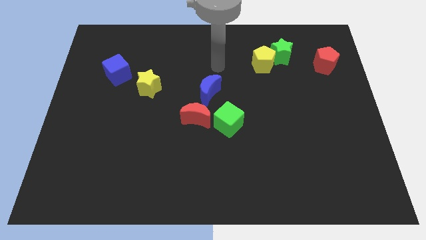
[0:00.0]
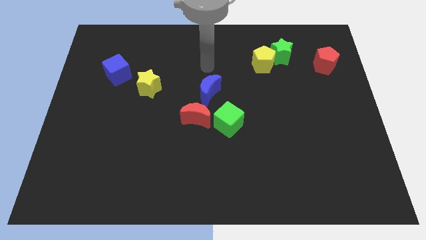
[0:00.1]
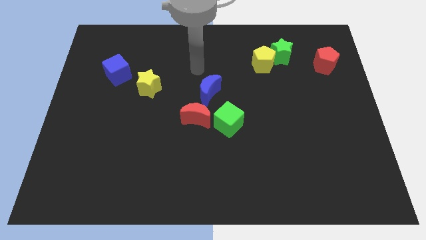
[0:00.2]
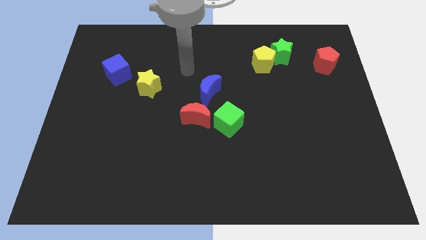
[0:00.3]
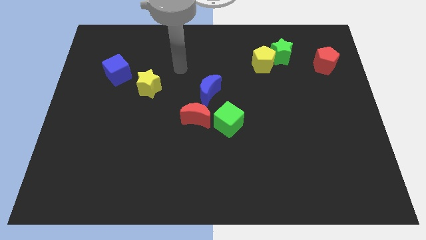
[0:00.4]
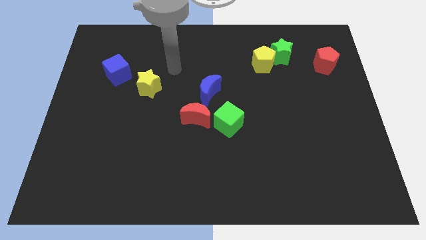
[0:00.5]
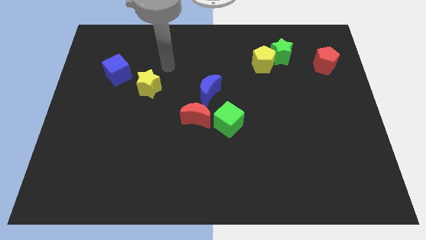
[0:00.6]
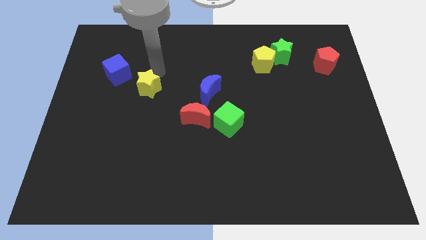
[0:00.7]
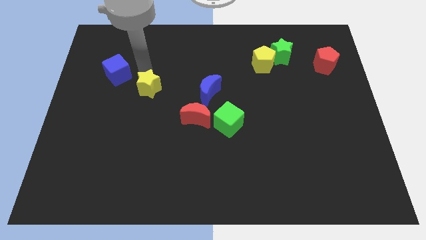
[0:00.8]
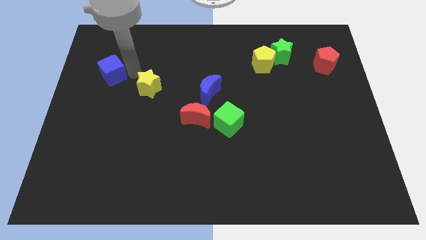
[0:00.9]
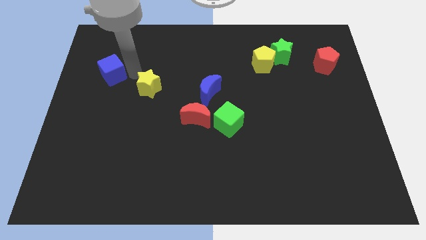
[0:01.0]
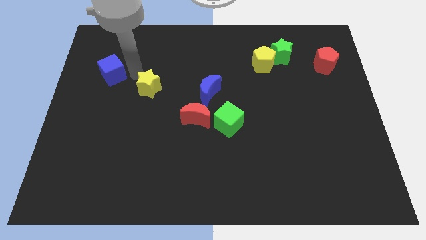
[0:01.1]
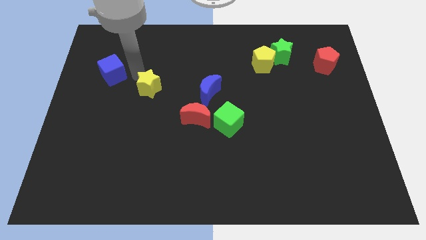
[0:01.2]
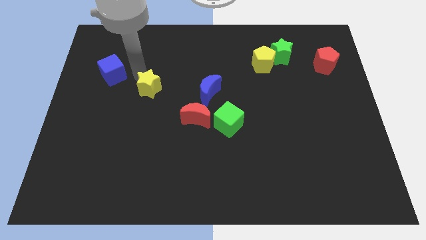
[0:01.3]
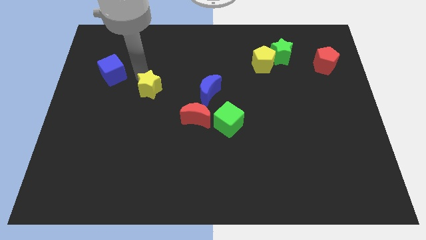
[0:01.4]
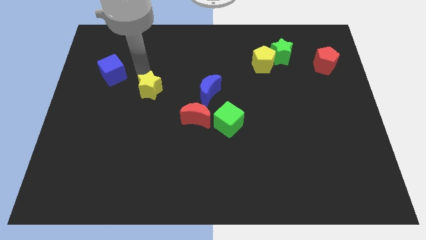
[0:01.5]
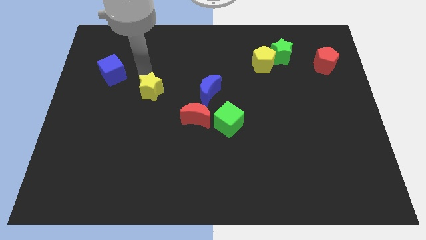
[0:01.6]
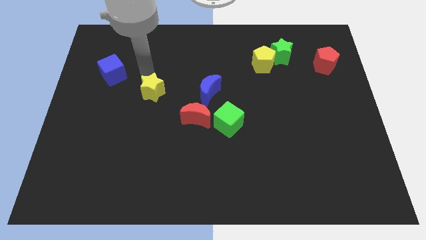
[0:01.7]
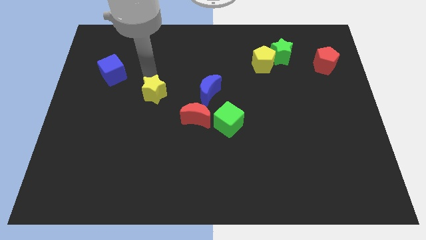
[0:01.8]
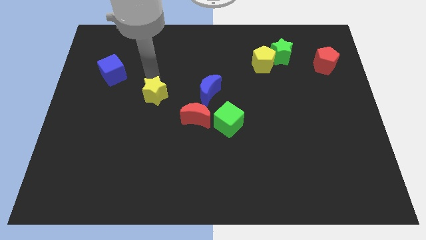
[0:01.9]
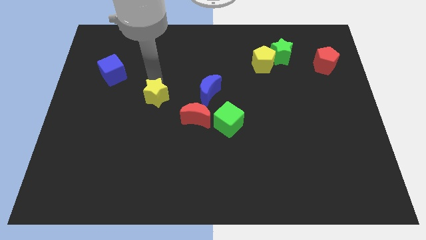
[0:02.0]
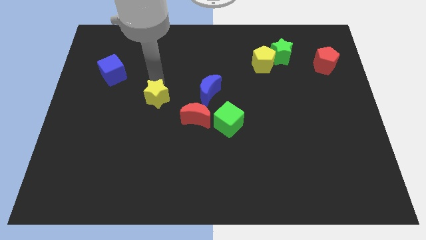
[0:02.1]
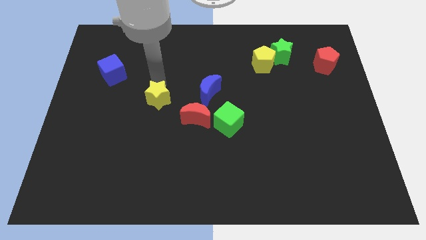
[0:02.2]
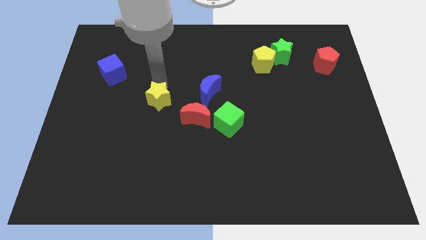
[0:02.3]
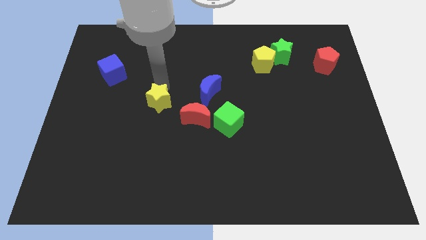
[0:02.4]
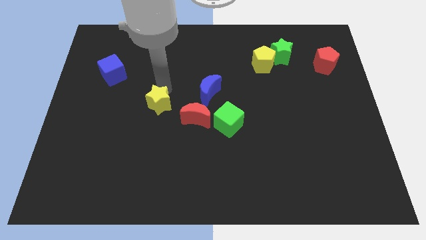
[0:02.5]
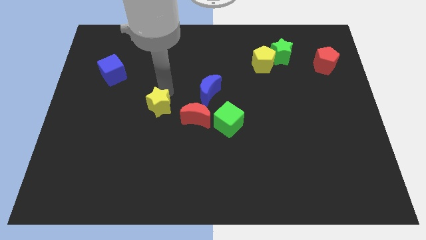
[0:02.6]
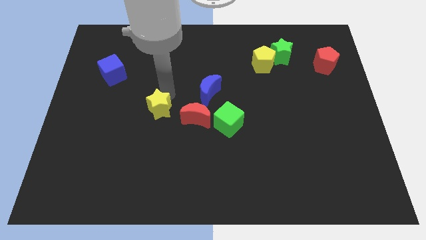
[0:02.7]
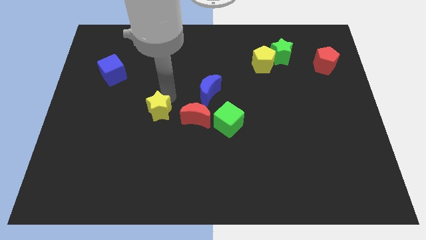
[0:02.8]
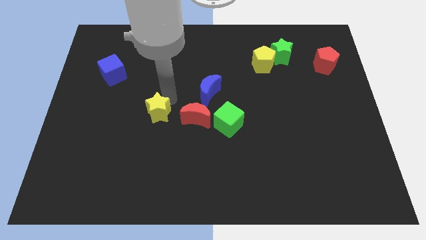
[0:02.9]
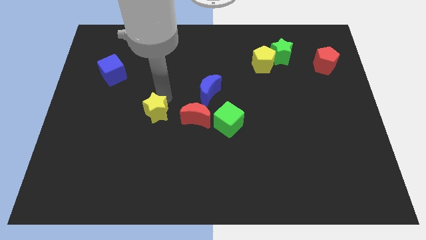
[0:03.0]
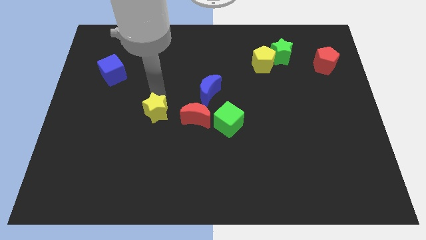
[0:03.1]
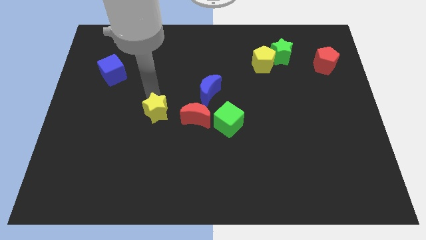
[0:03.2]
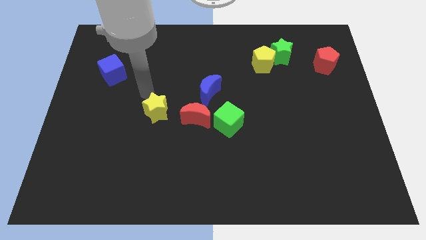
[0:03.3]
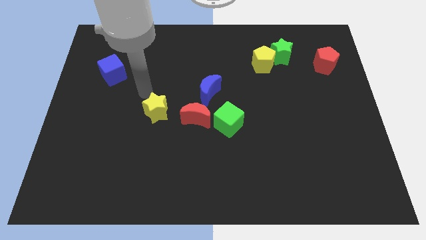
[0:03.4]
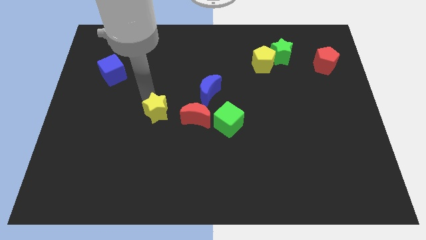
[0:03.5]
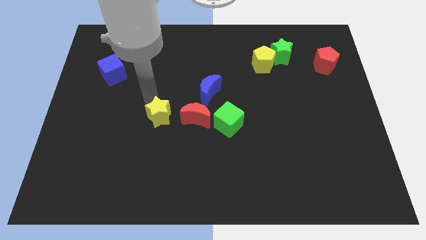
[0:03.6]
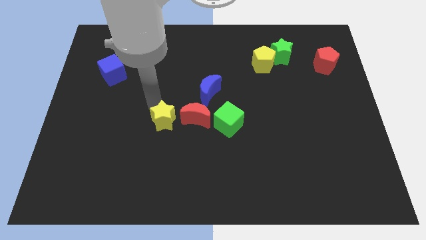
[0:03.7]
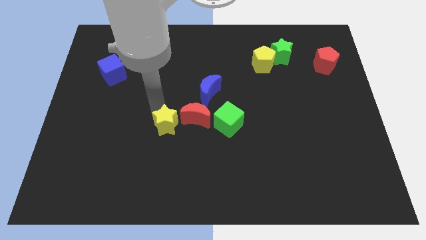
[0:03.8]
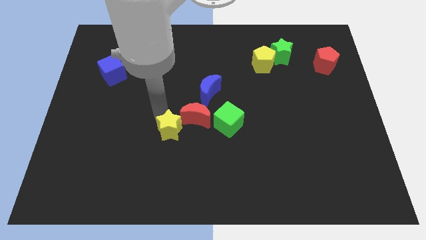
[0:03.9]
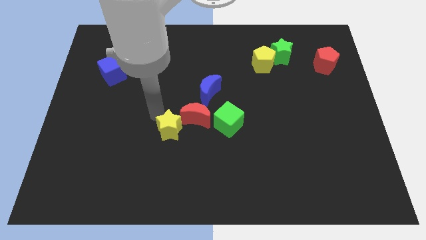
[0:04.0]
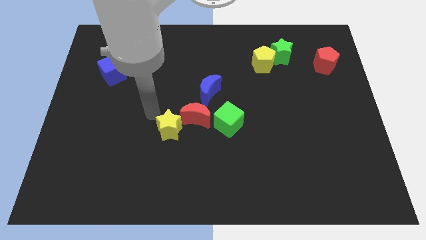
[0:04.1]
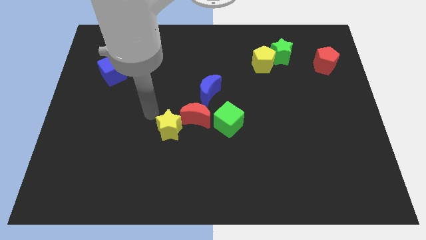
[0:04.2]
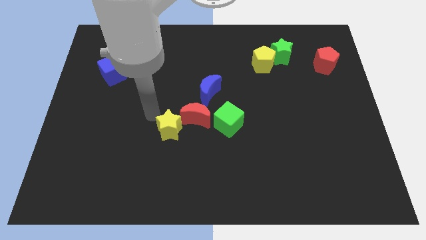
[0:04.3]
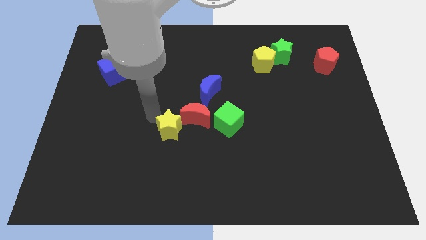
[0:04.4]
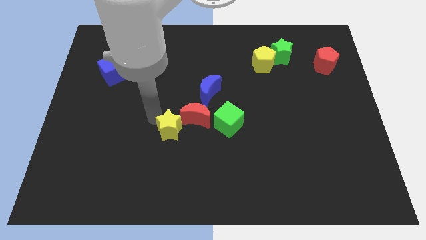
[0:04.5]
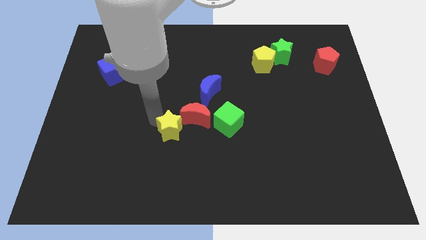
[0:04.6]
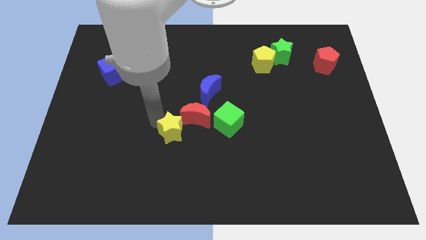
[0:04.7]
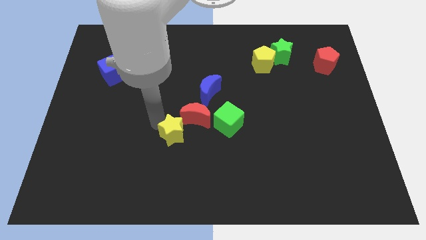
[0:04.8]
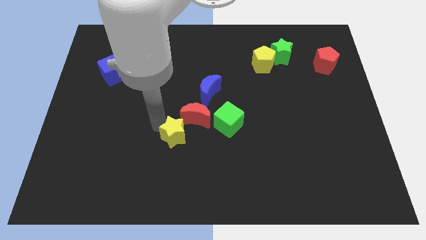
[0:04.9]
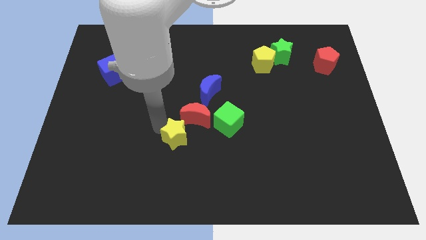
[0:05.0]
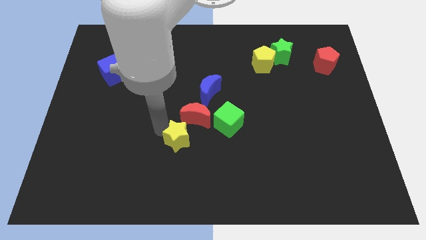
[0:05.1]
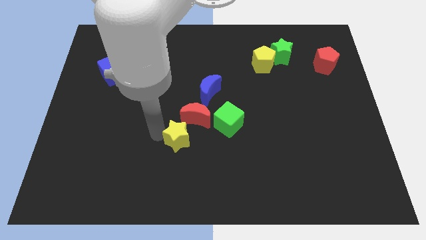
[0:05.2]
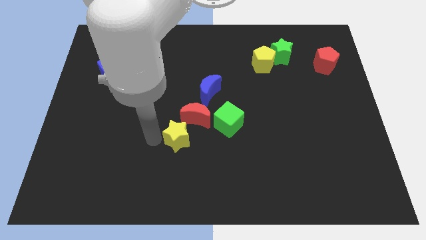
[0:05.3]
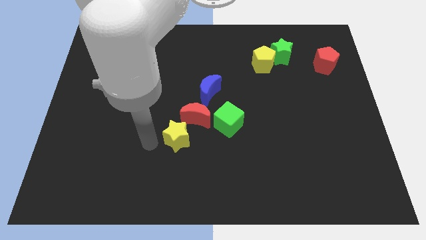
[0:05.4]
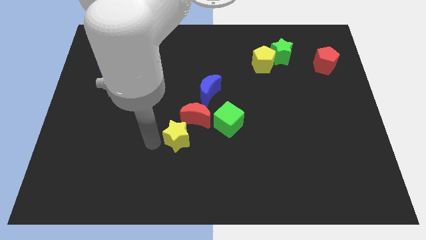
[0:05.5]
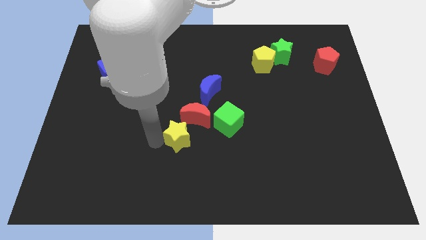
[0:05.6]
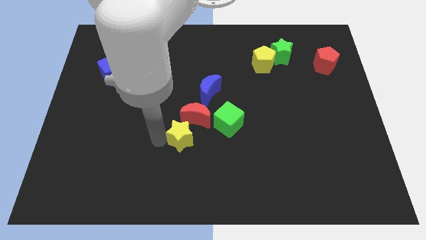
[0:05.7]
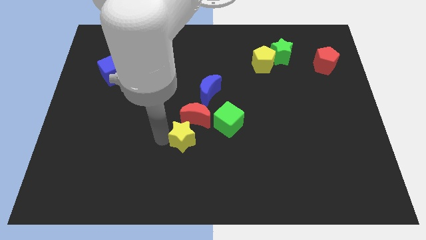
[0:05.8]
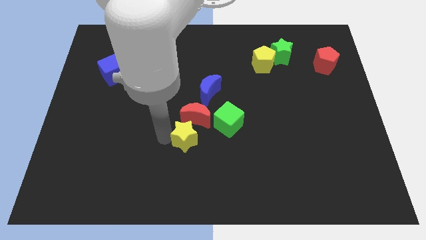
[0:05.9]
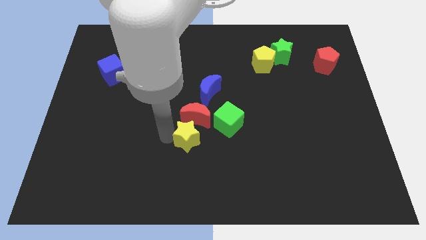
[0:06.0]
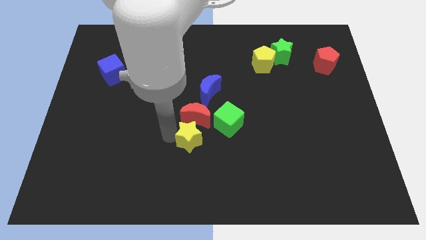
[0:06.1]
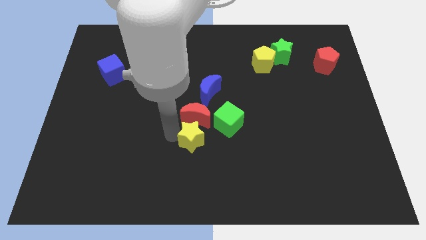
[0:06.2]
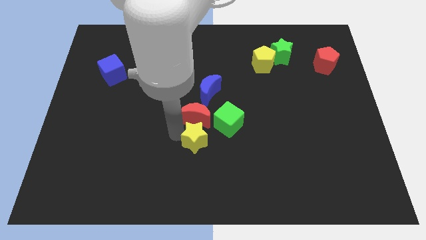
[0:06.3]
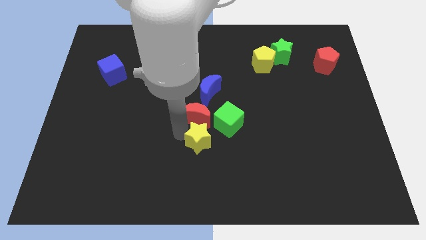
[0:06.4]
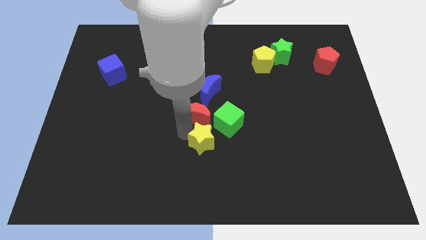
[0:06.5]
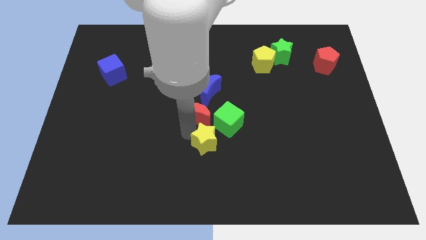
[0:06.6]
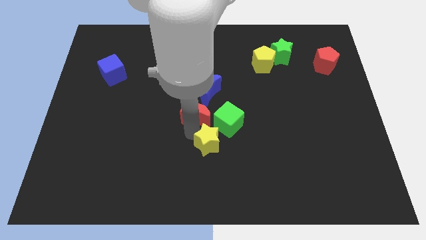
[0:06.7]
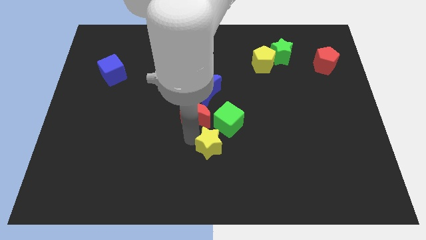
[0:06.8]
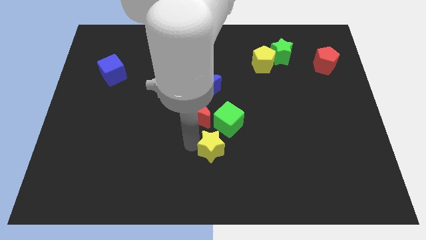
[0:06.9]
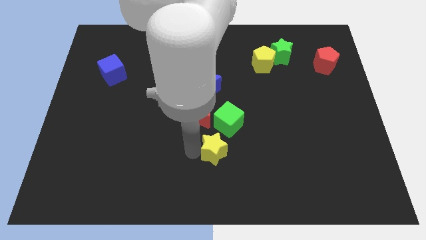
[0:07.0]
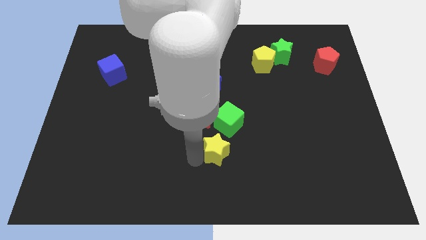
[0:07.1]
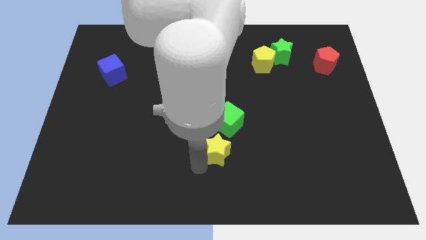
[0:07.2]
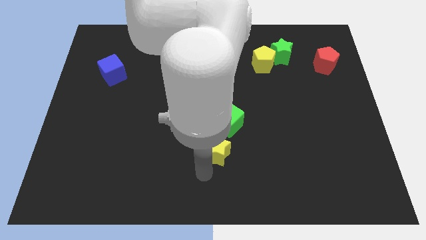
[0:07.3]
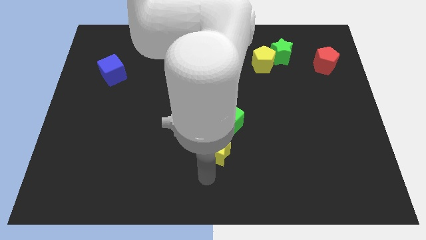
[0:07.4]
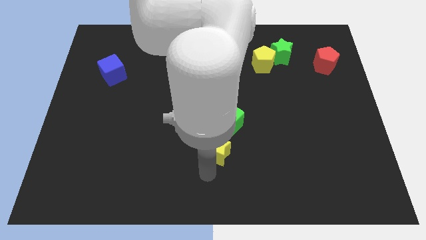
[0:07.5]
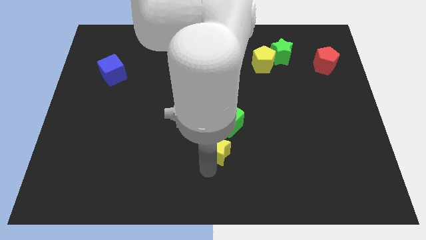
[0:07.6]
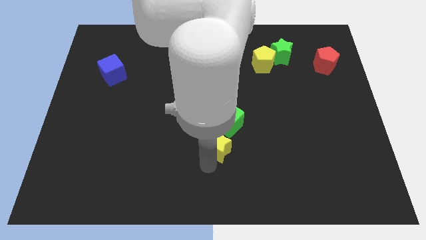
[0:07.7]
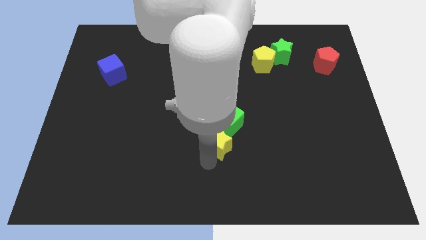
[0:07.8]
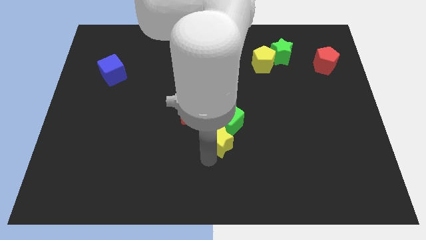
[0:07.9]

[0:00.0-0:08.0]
slide the yellow star close to the green cube

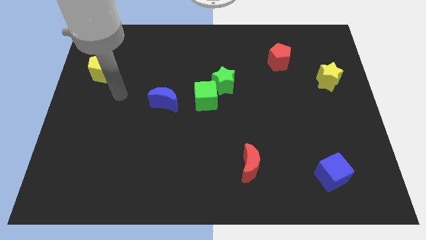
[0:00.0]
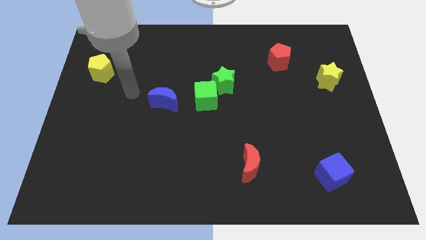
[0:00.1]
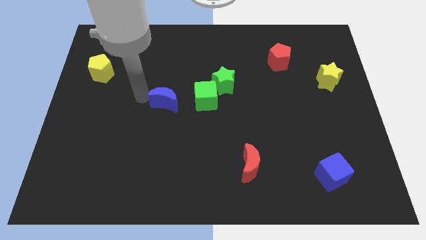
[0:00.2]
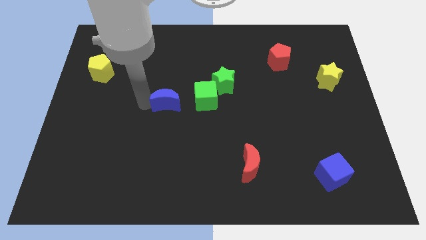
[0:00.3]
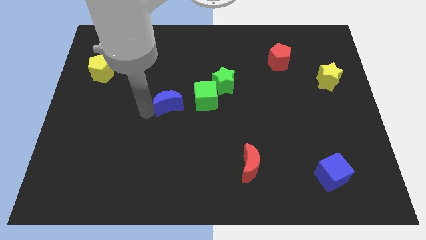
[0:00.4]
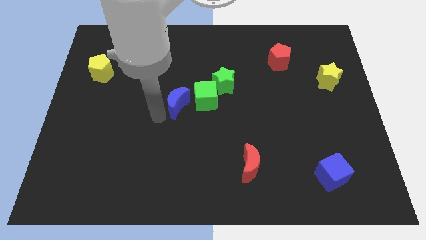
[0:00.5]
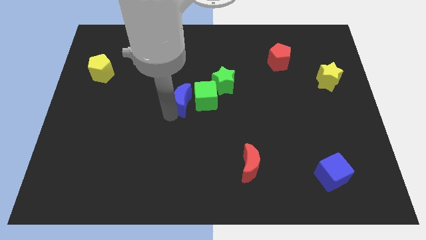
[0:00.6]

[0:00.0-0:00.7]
slide the green cube towards the blue moon
